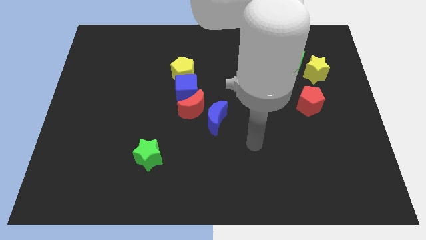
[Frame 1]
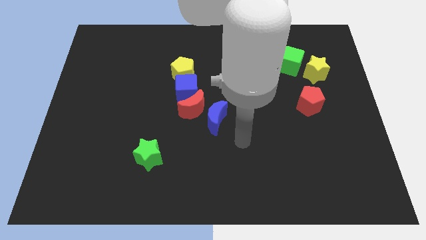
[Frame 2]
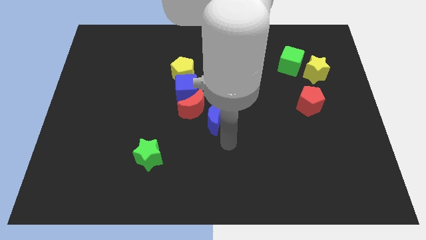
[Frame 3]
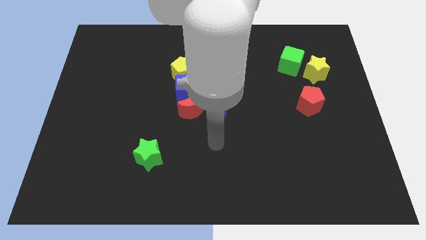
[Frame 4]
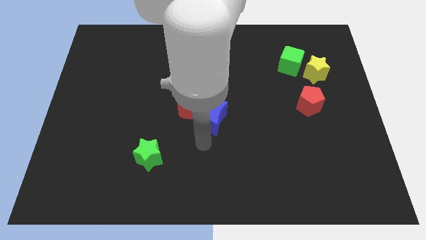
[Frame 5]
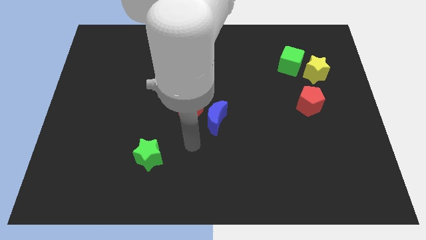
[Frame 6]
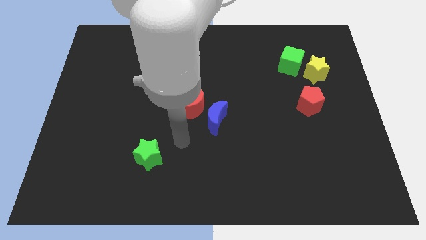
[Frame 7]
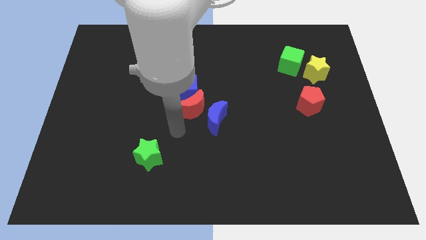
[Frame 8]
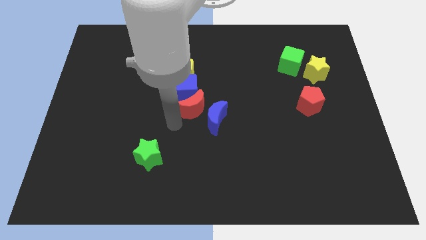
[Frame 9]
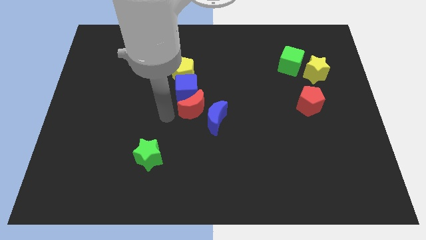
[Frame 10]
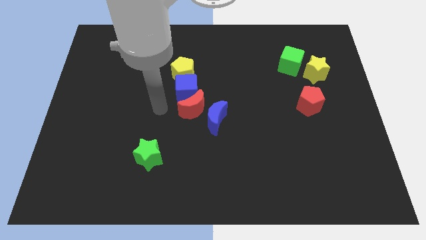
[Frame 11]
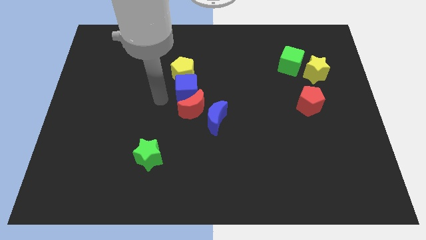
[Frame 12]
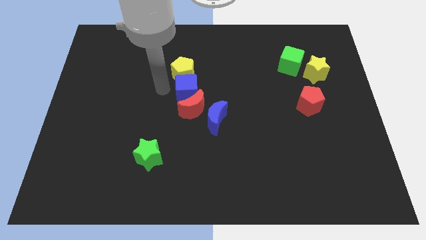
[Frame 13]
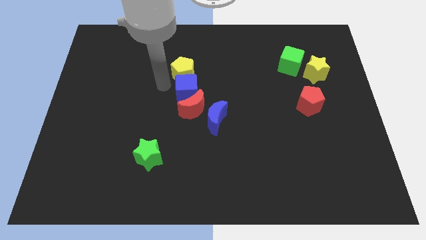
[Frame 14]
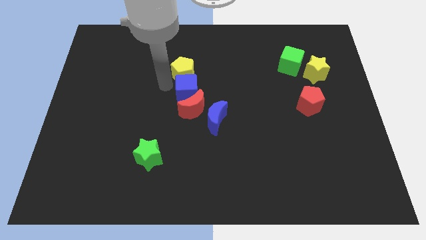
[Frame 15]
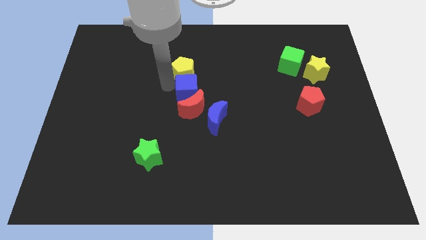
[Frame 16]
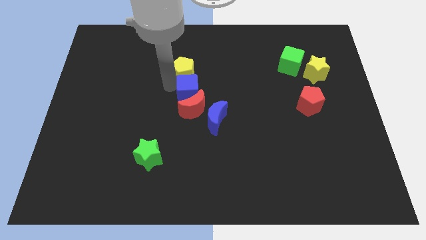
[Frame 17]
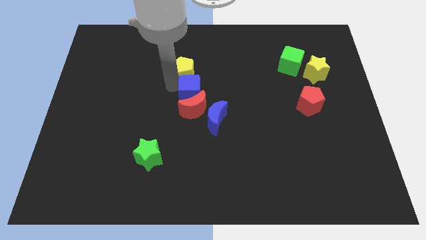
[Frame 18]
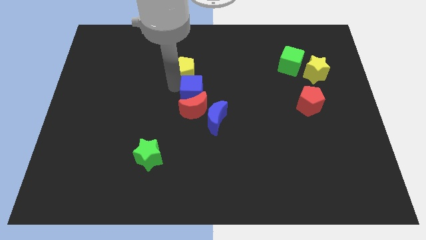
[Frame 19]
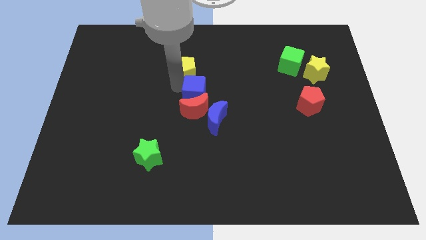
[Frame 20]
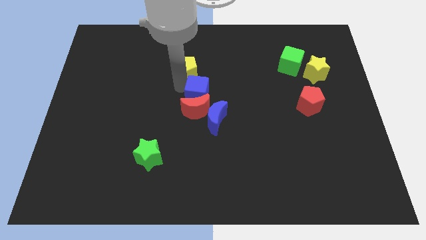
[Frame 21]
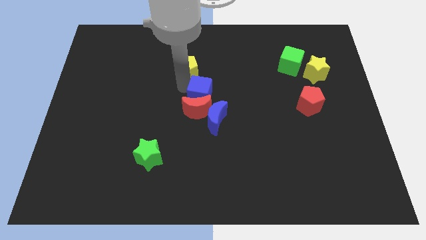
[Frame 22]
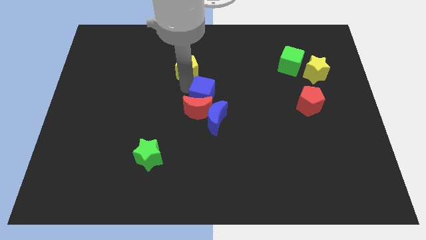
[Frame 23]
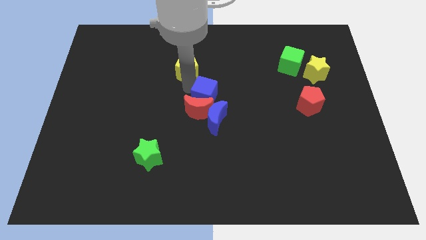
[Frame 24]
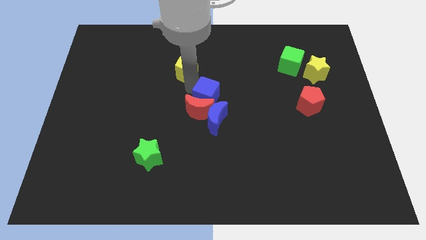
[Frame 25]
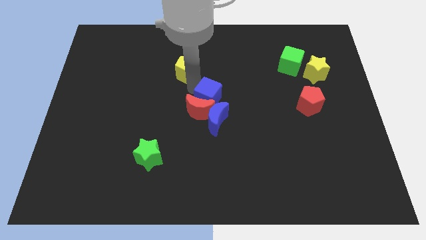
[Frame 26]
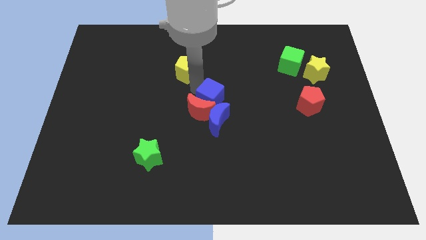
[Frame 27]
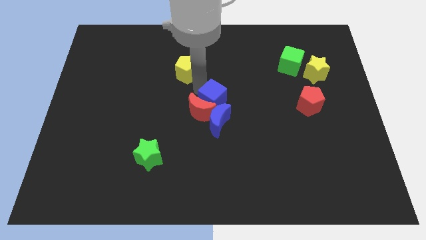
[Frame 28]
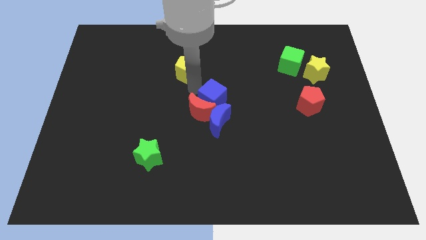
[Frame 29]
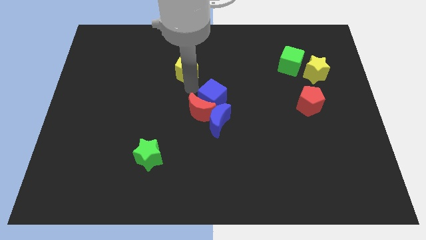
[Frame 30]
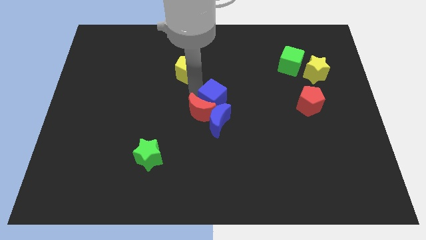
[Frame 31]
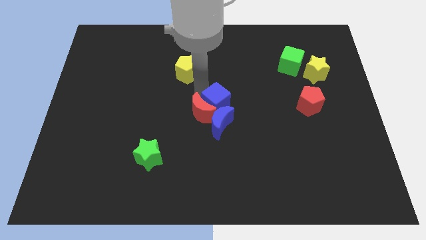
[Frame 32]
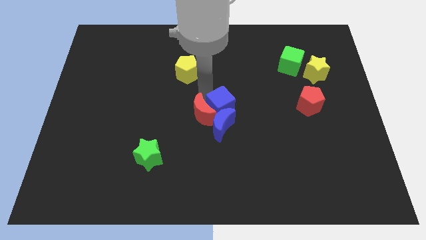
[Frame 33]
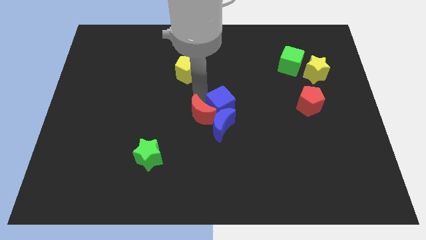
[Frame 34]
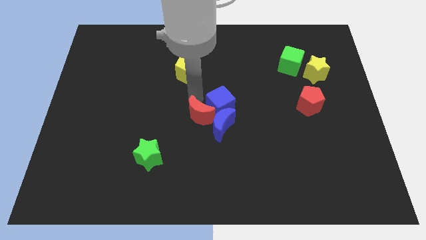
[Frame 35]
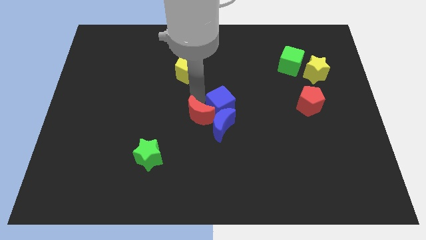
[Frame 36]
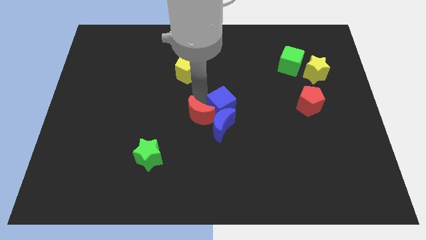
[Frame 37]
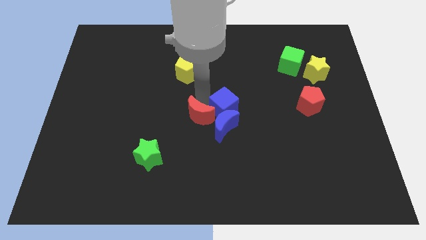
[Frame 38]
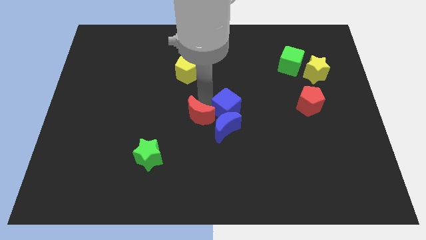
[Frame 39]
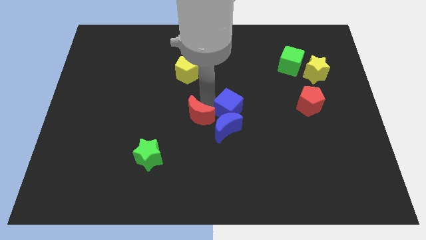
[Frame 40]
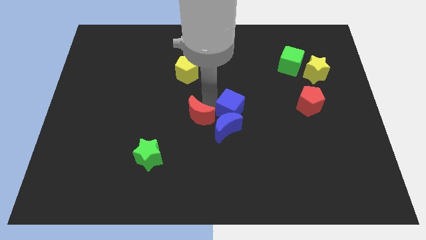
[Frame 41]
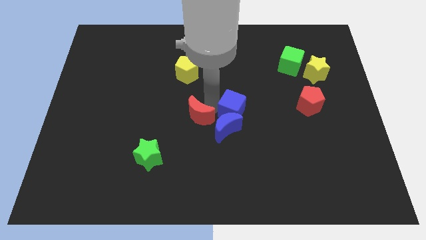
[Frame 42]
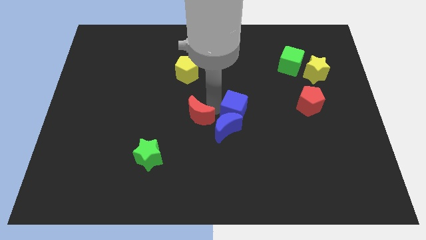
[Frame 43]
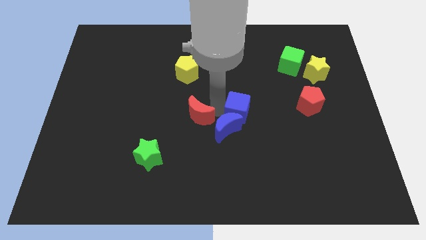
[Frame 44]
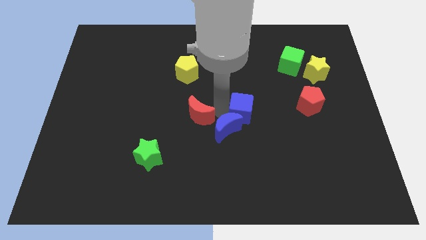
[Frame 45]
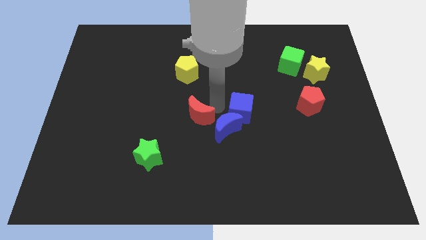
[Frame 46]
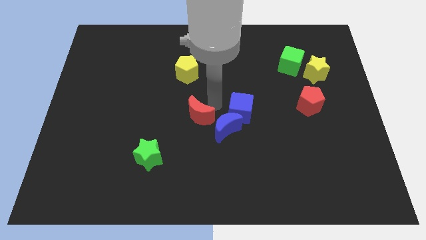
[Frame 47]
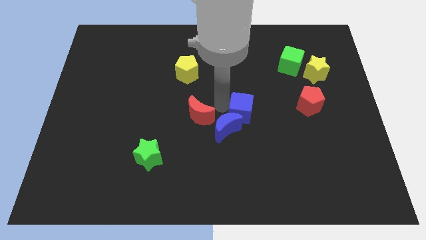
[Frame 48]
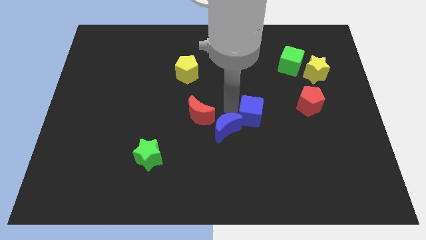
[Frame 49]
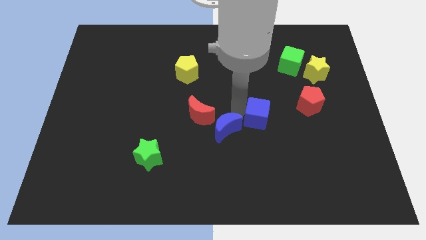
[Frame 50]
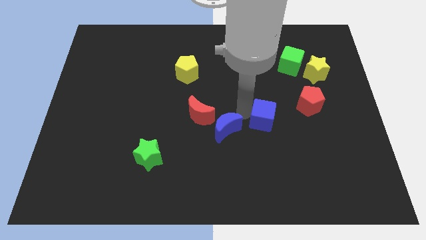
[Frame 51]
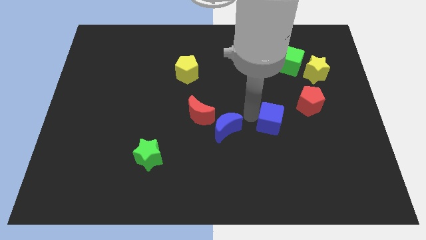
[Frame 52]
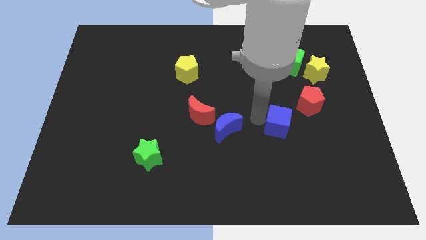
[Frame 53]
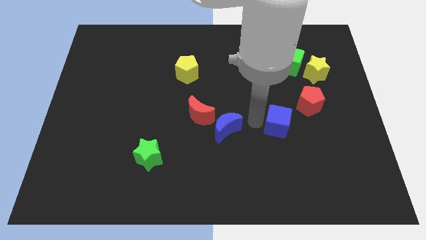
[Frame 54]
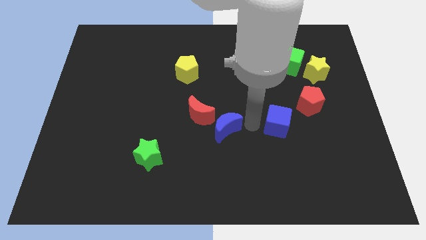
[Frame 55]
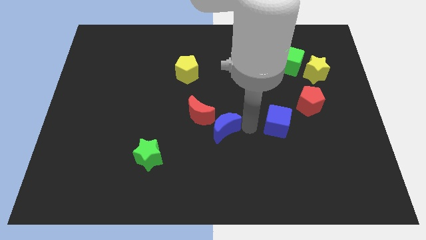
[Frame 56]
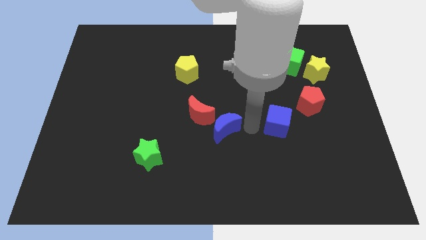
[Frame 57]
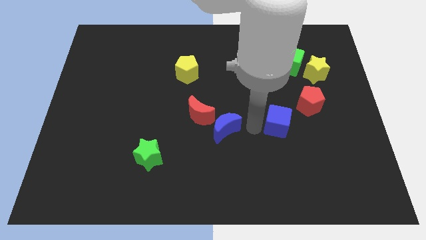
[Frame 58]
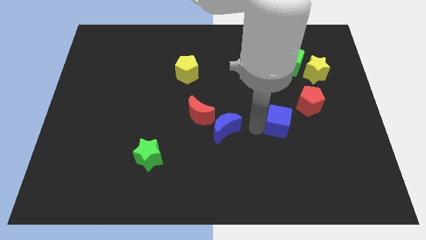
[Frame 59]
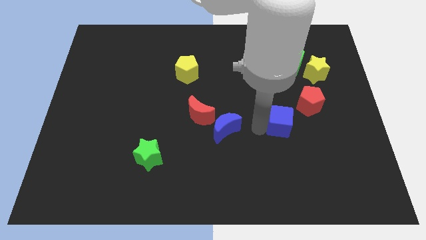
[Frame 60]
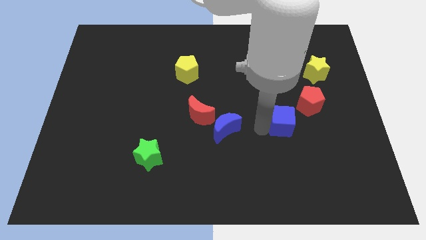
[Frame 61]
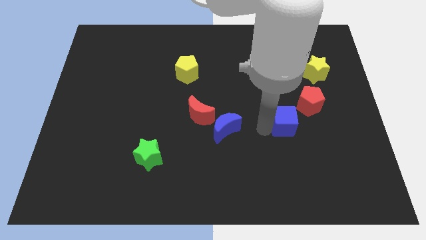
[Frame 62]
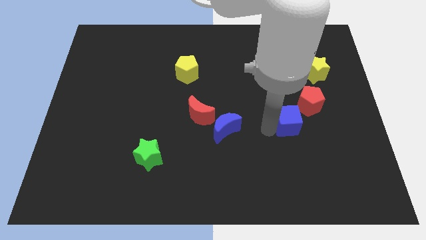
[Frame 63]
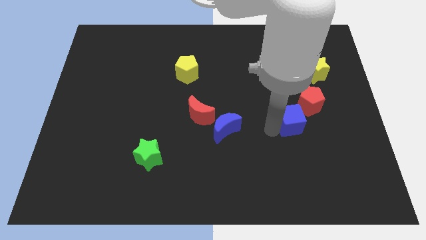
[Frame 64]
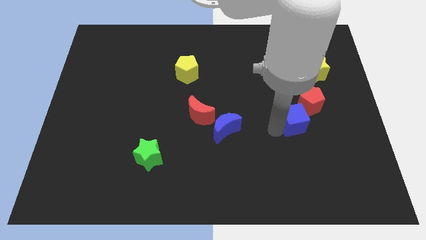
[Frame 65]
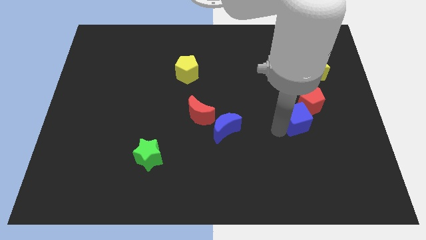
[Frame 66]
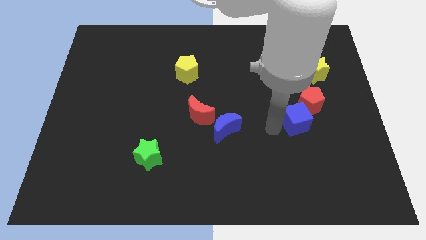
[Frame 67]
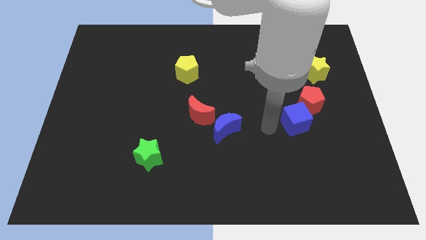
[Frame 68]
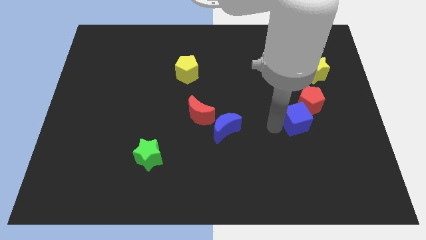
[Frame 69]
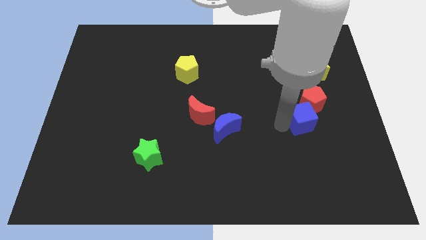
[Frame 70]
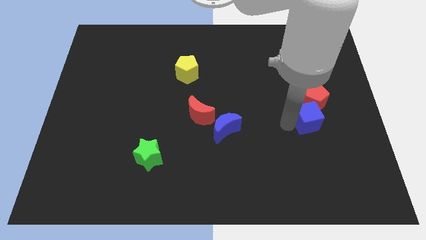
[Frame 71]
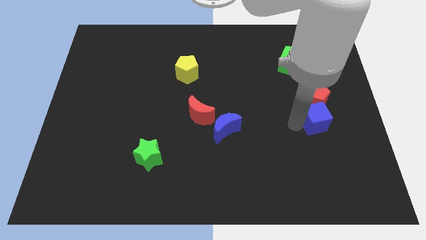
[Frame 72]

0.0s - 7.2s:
move the blue cube to the bottom of the yellow star
